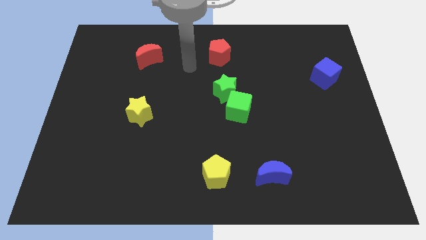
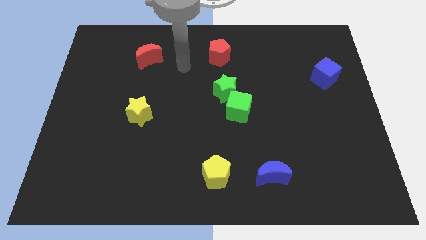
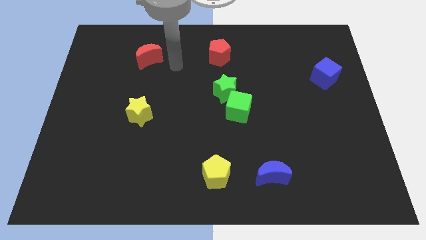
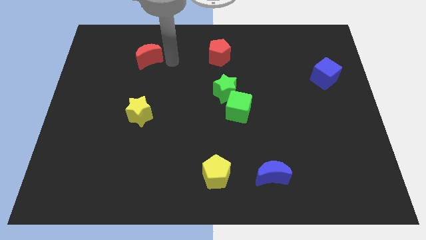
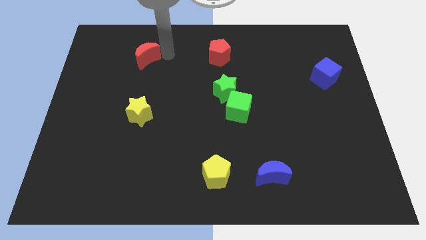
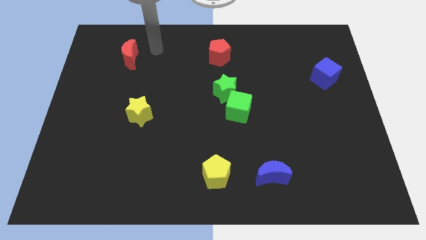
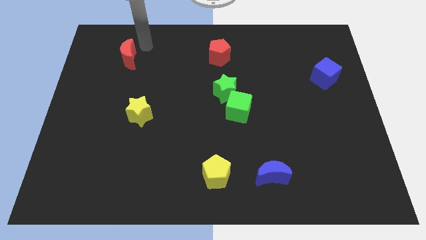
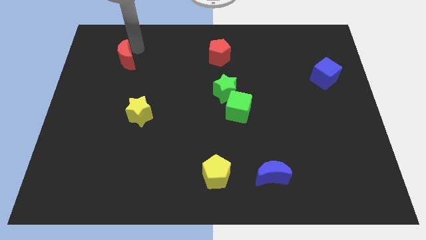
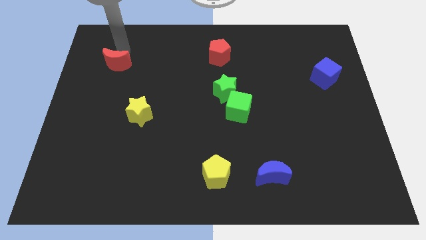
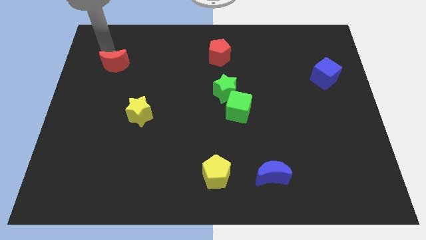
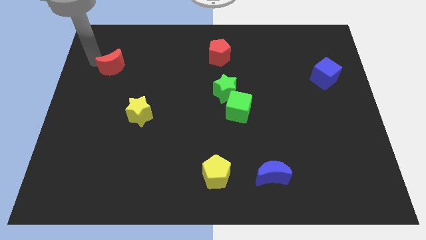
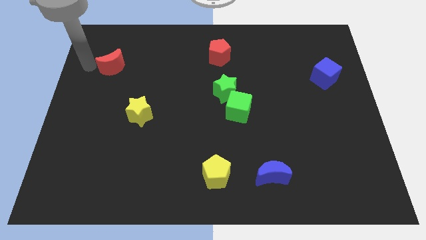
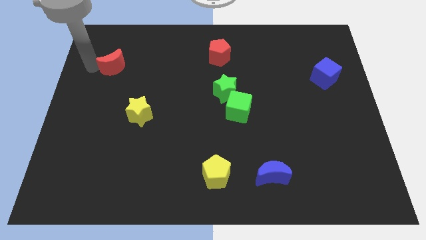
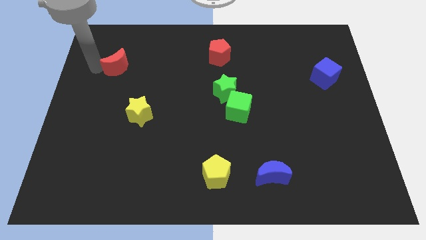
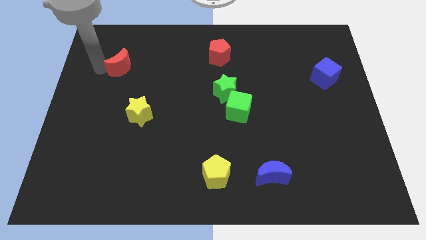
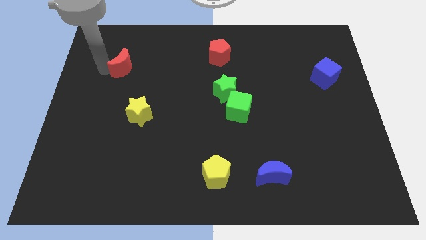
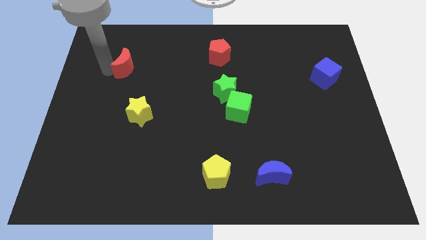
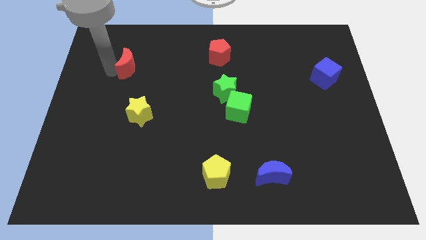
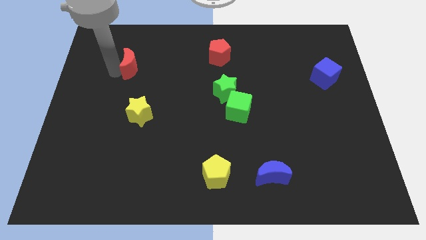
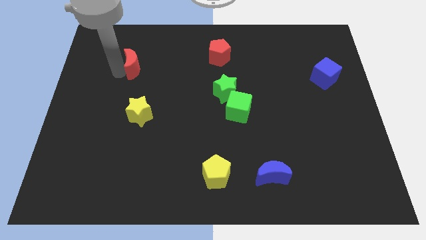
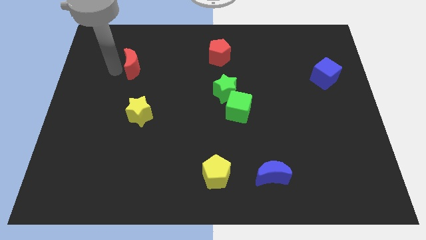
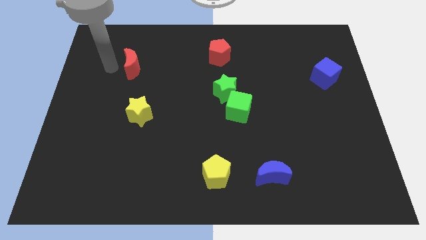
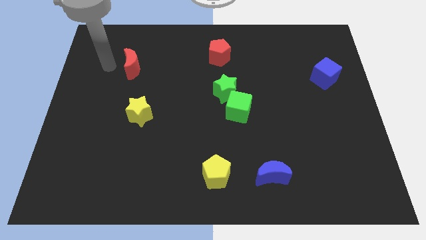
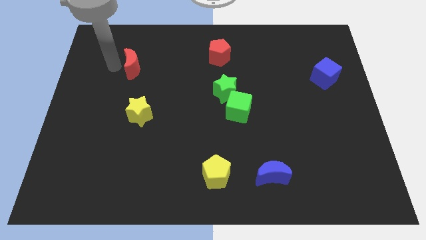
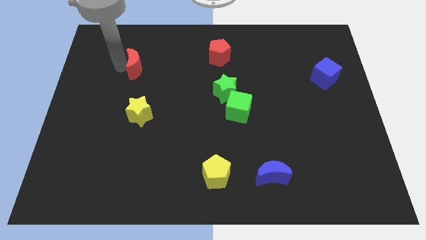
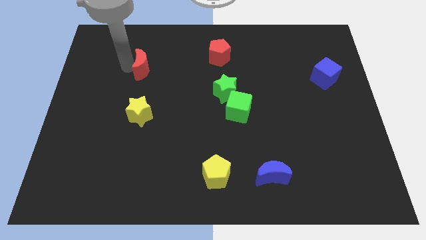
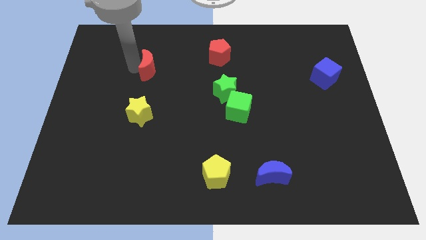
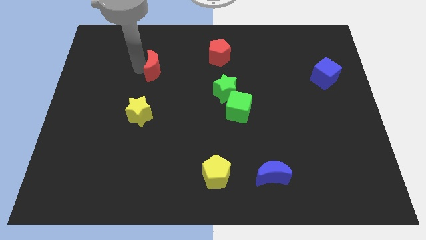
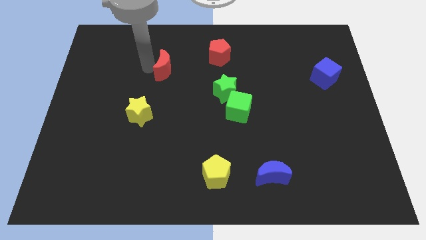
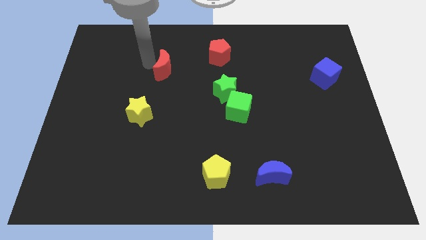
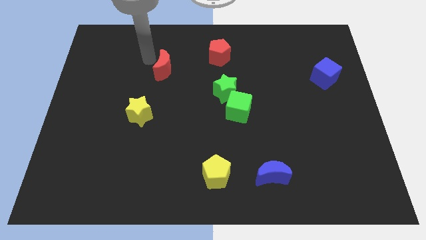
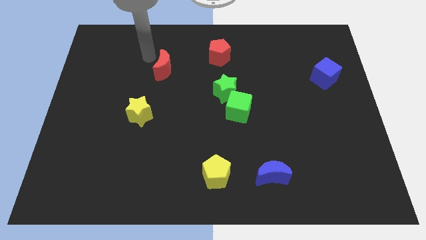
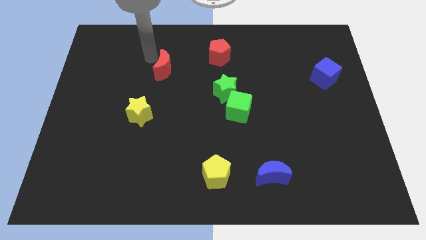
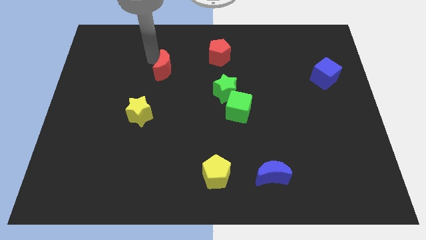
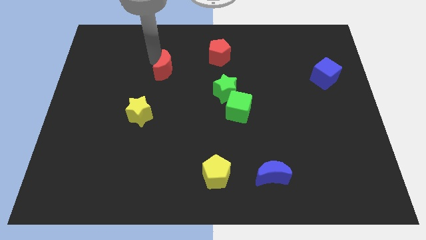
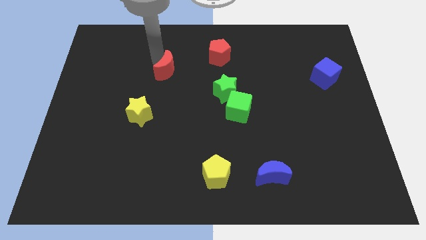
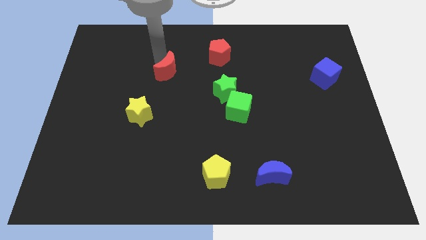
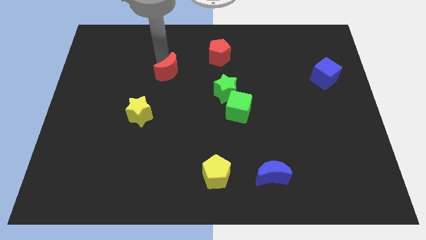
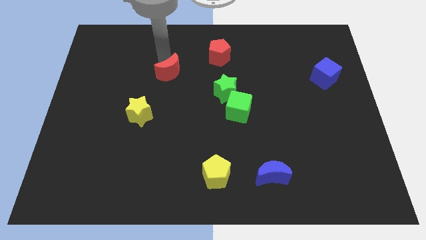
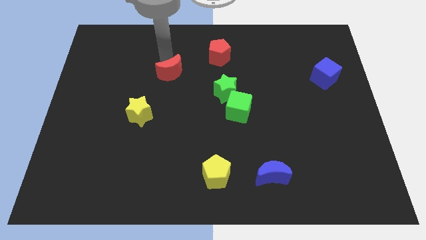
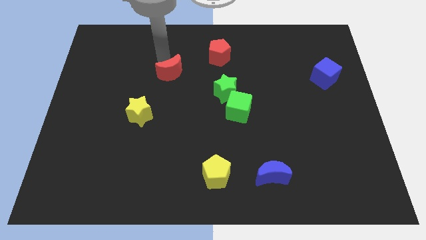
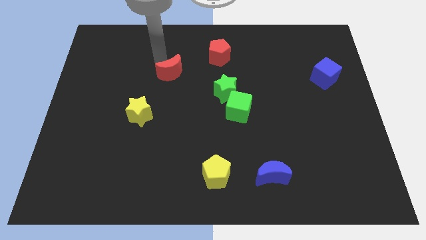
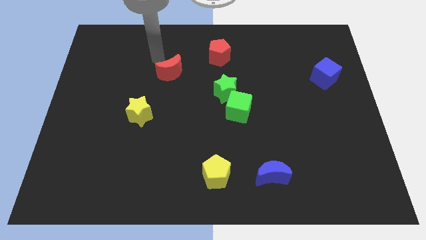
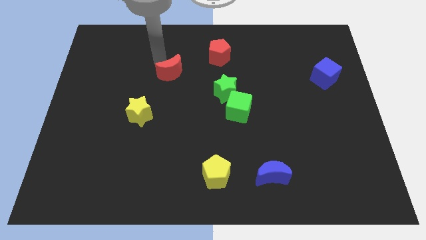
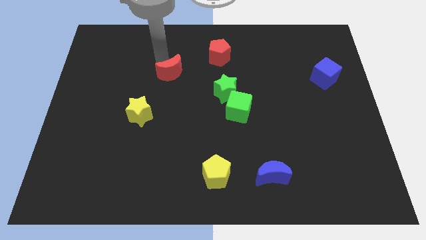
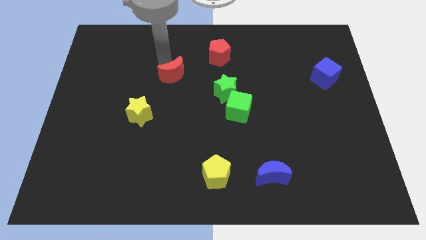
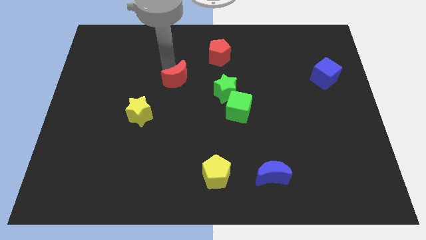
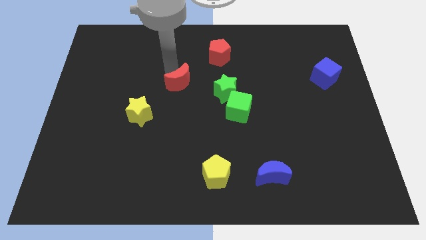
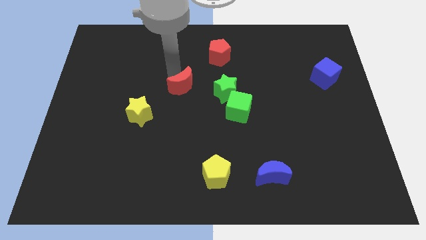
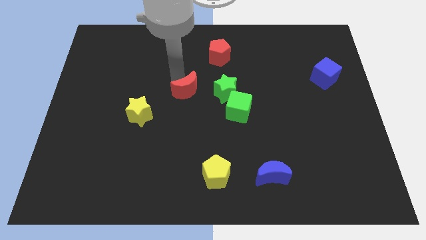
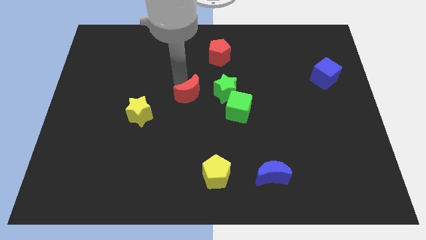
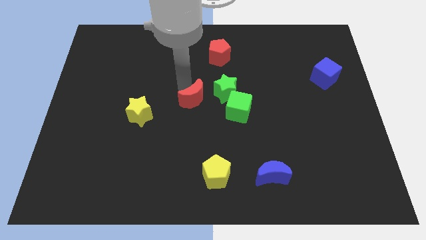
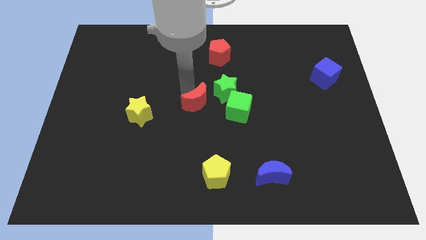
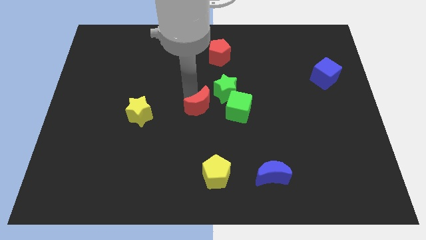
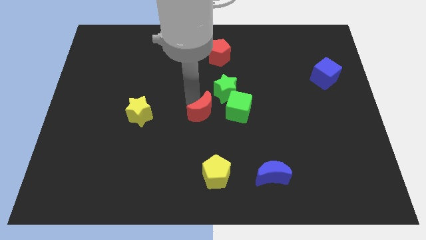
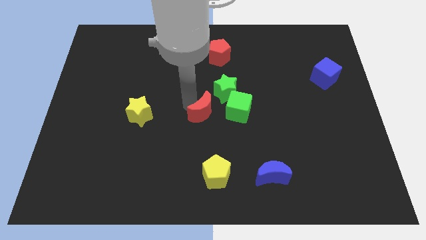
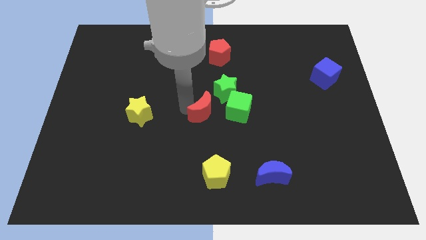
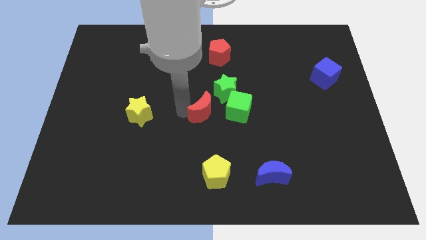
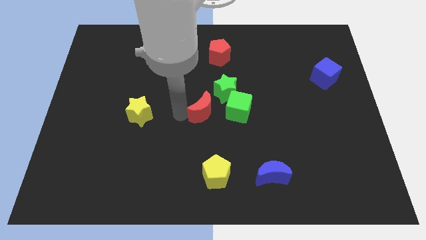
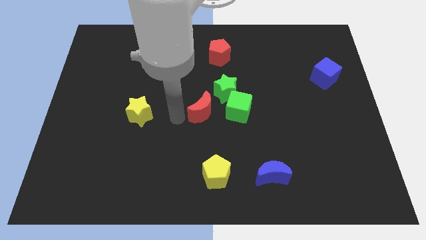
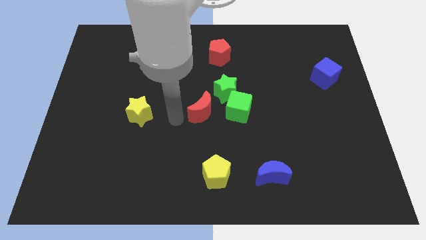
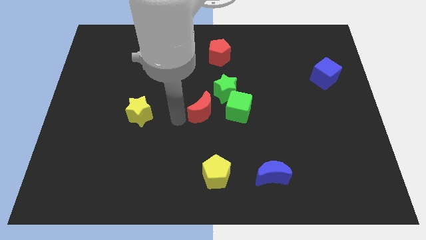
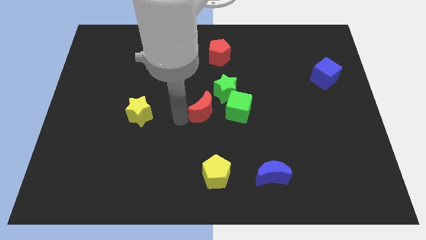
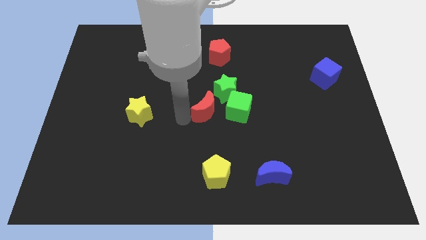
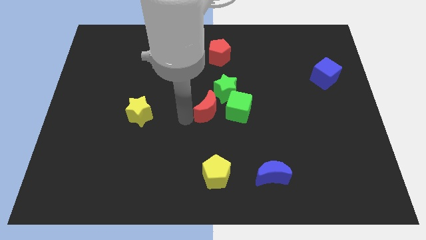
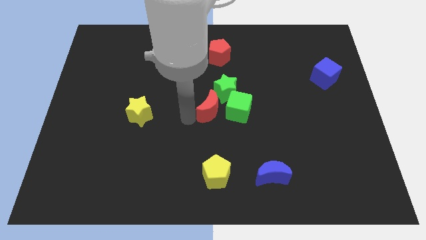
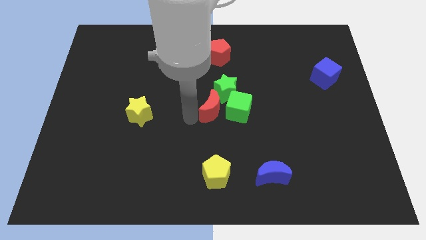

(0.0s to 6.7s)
put the red moon to the green cube

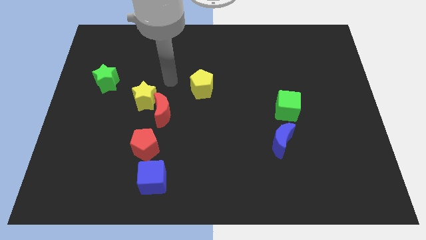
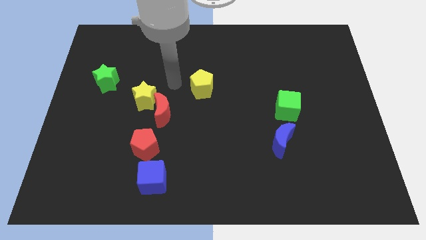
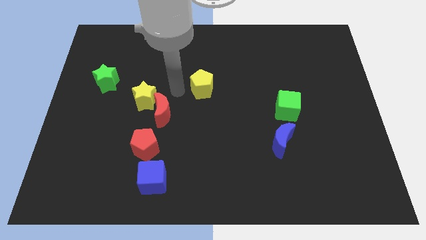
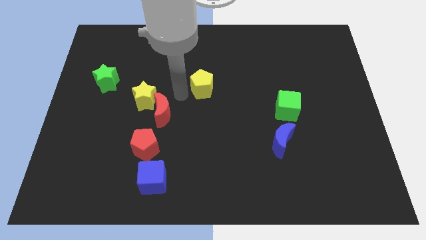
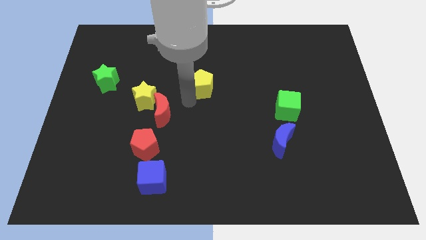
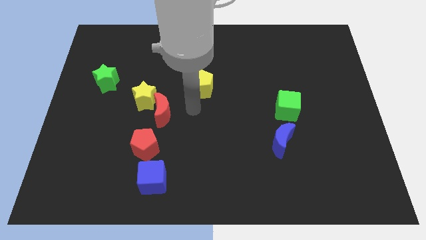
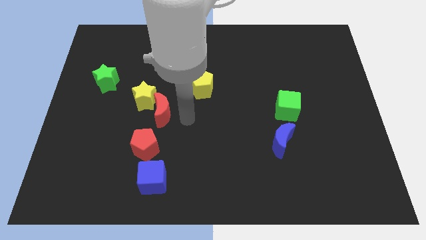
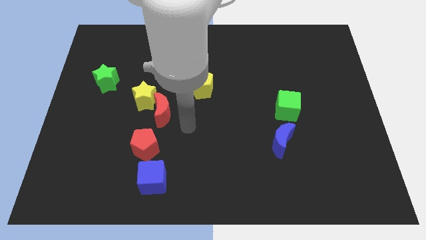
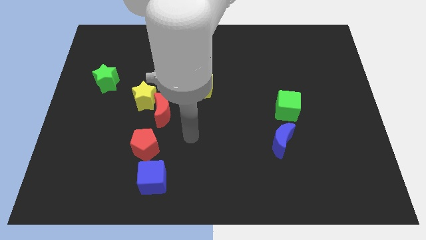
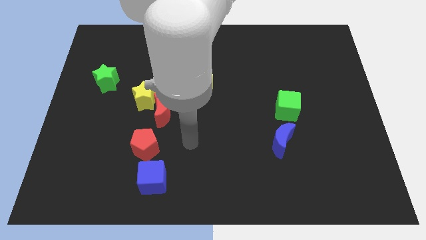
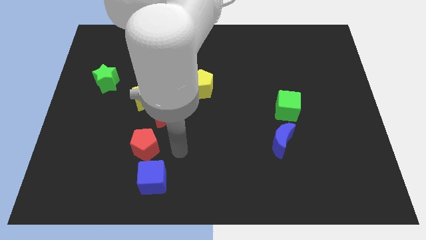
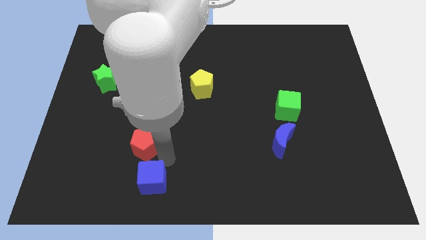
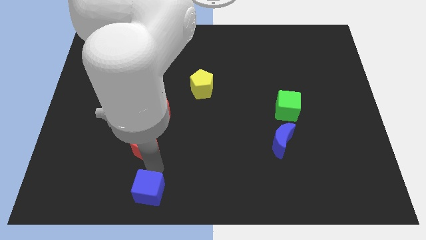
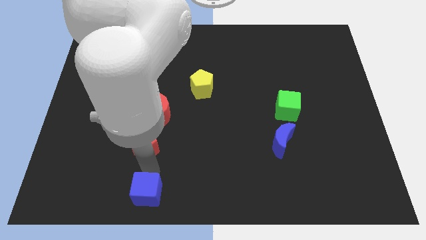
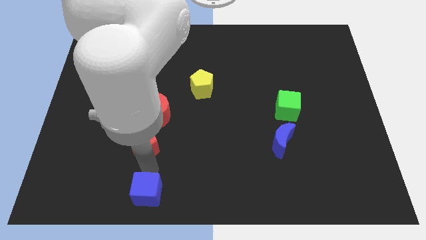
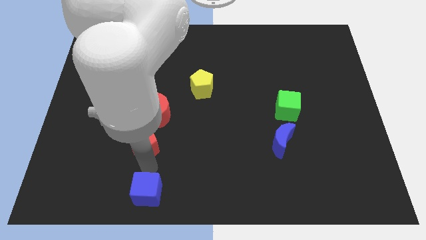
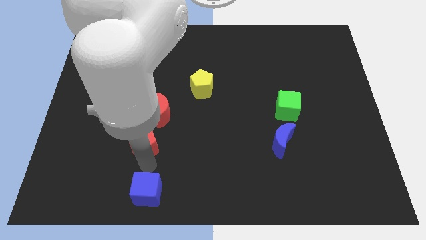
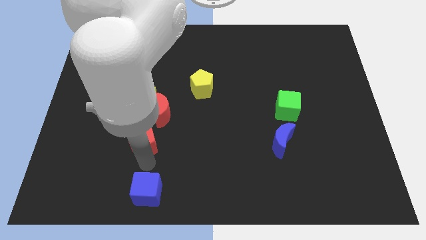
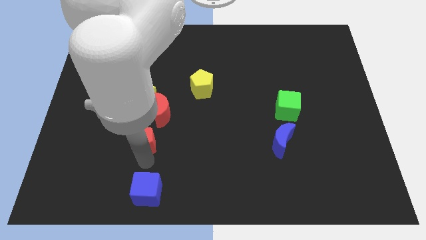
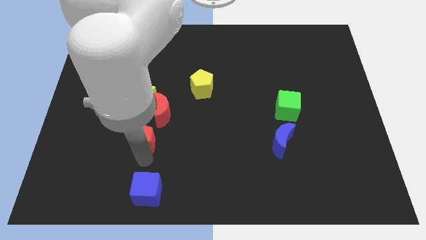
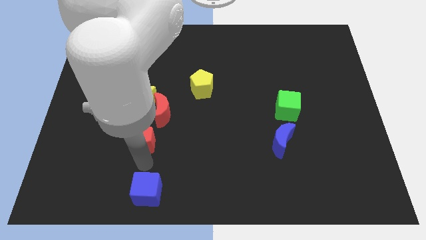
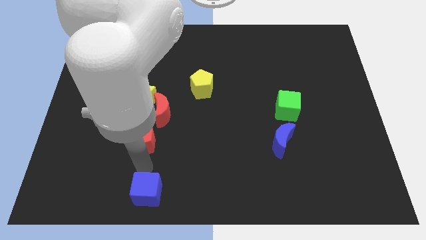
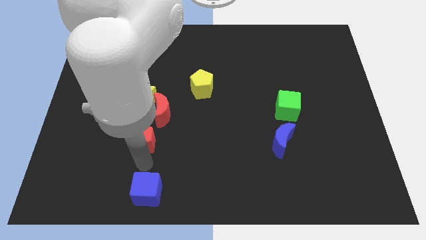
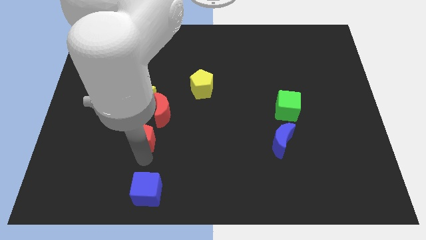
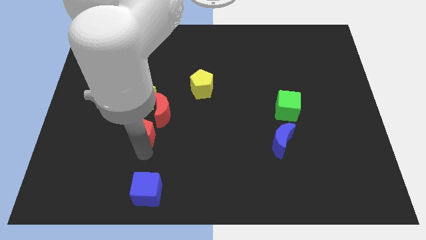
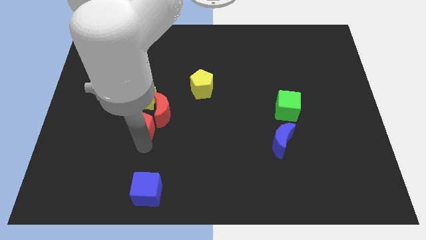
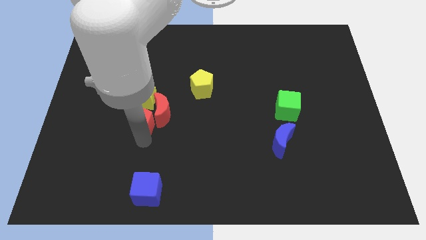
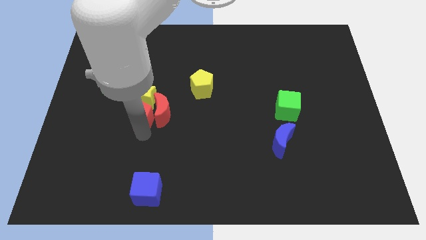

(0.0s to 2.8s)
slide the red pentagon close to the yellow star
